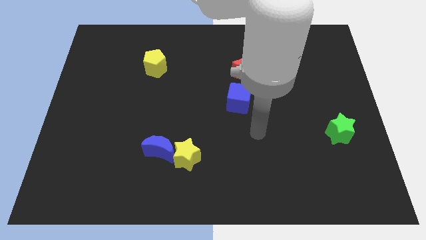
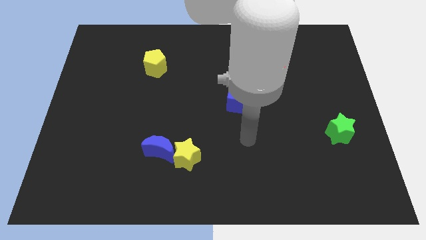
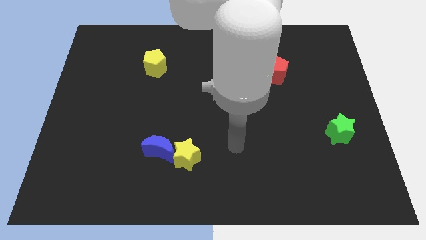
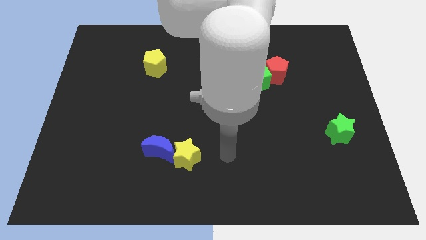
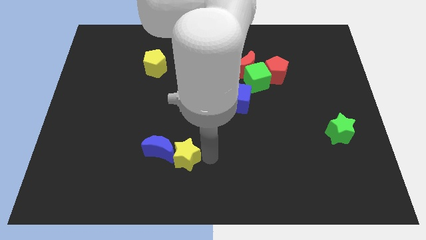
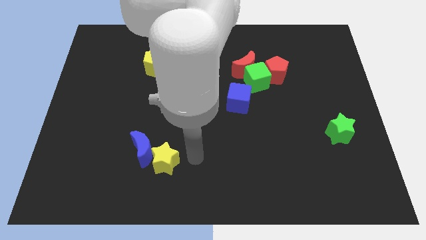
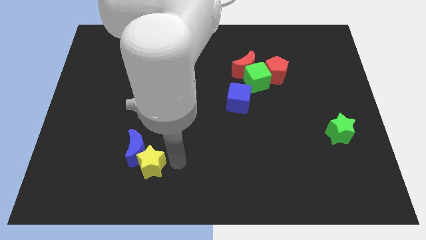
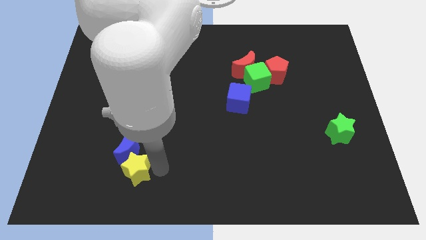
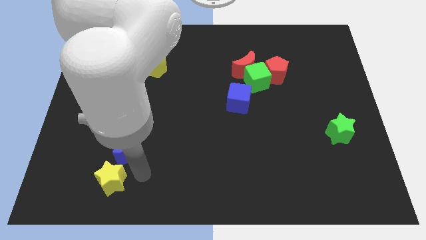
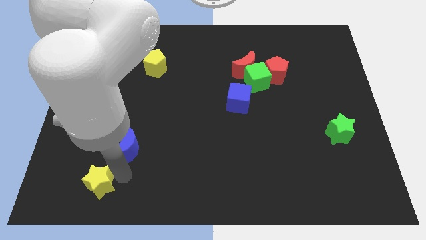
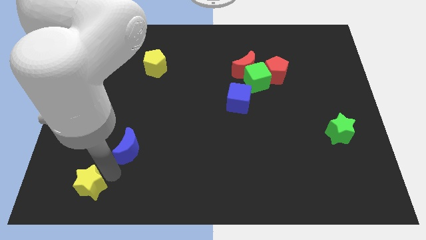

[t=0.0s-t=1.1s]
separate the blue moon from the yellow star

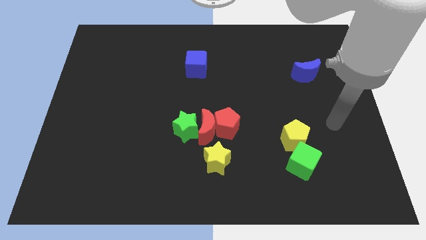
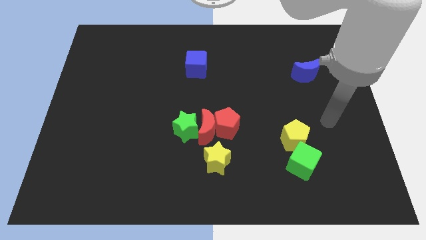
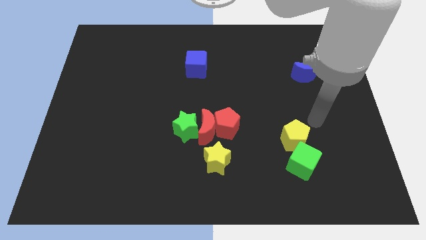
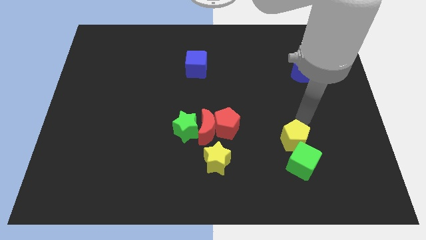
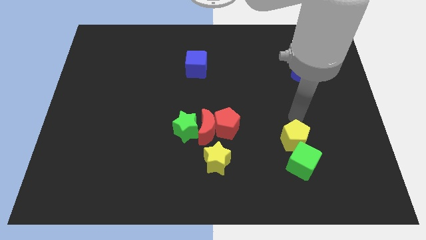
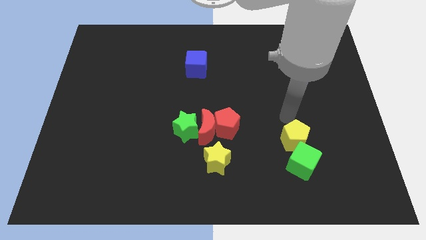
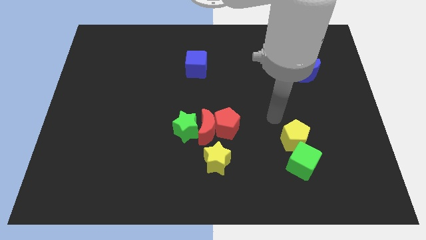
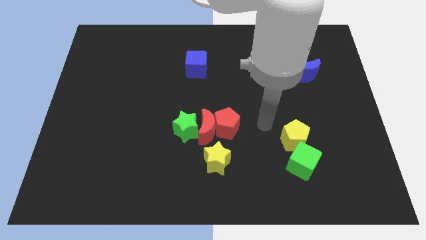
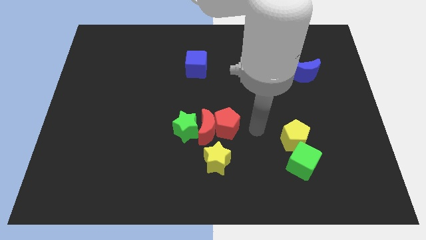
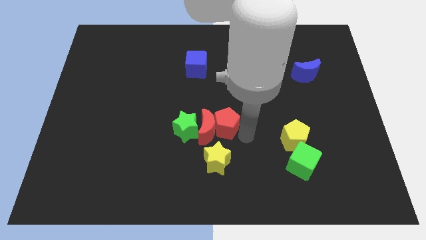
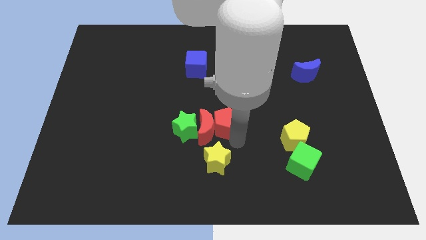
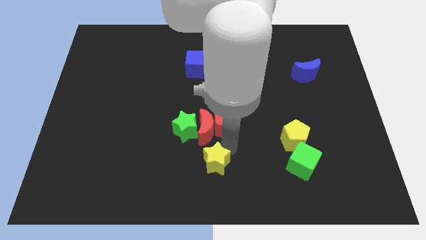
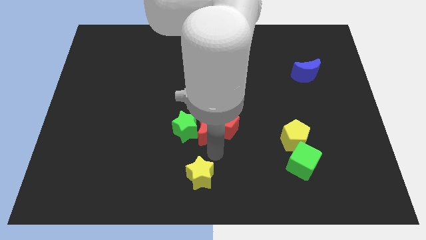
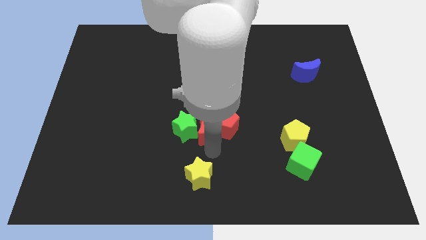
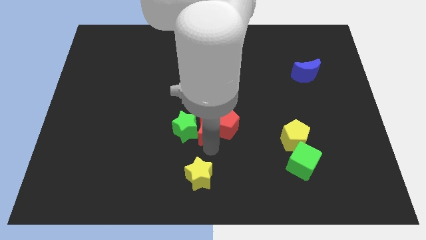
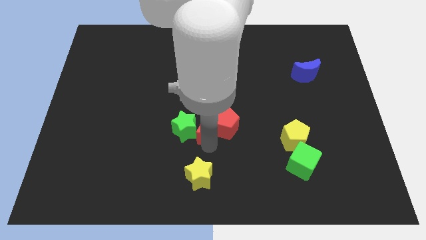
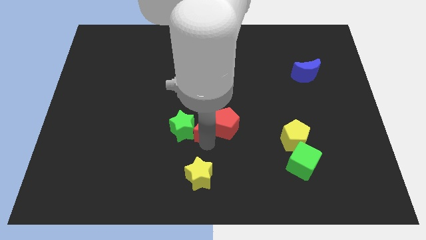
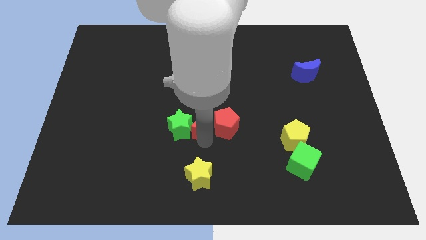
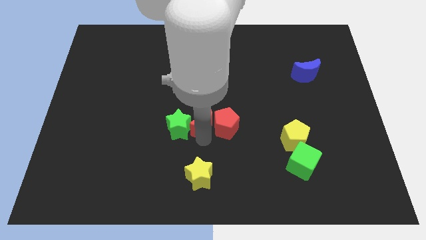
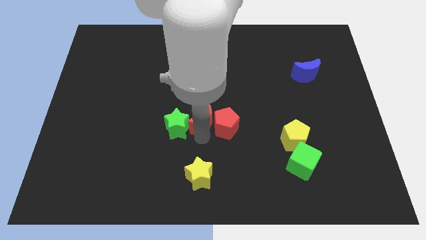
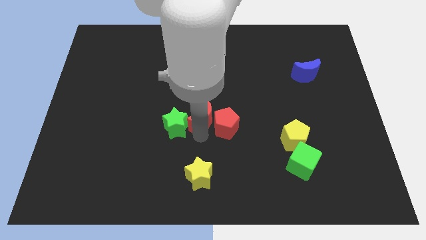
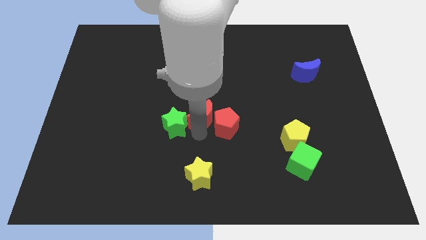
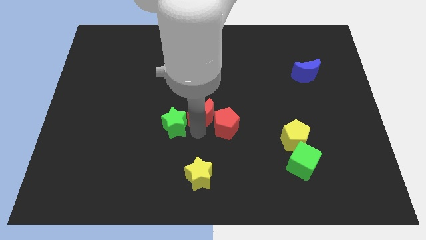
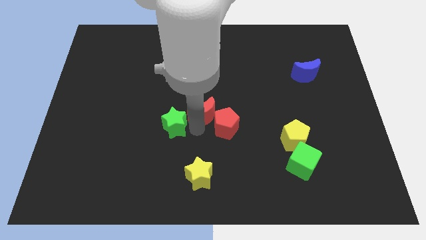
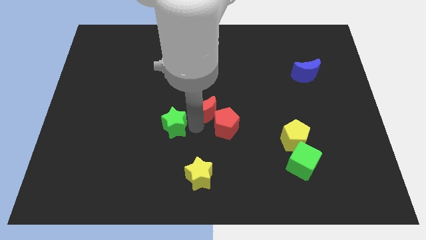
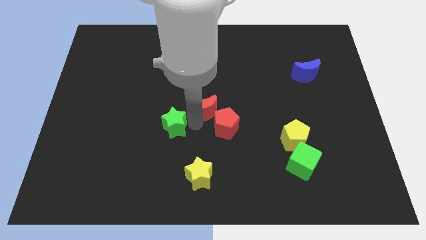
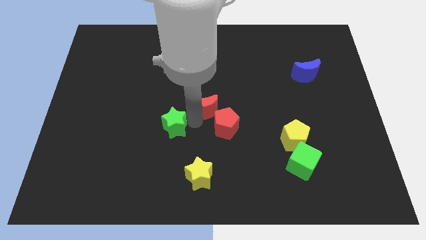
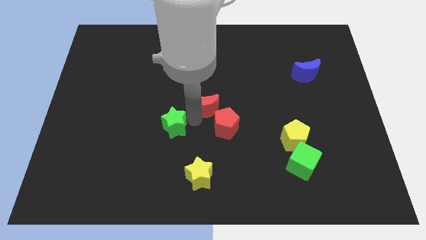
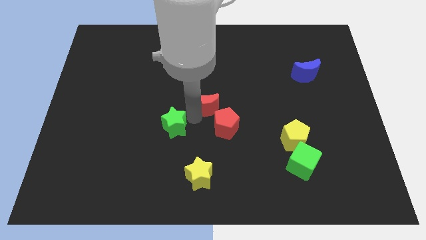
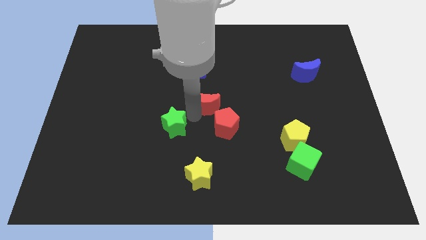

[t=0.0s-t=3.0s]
pull the red moon apart from the red pentagon, green star, and yellow star

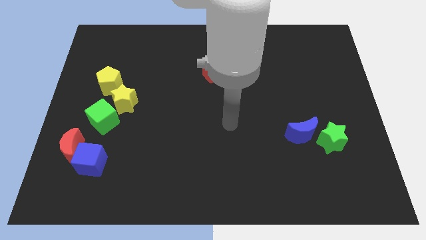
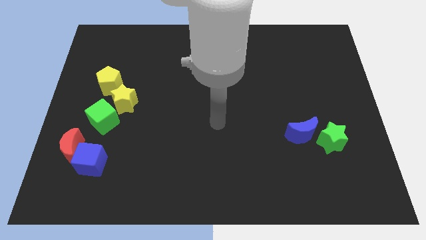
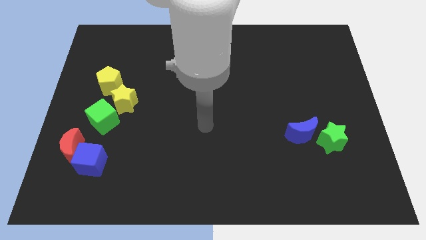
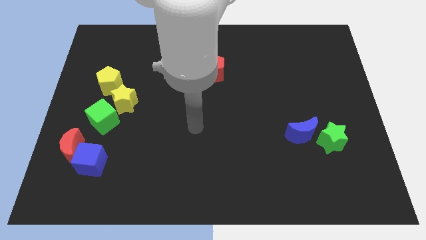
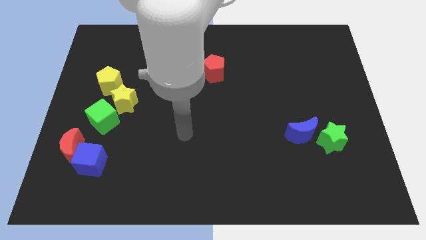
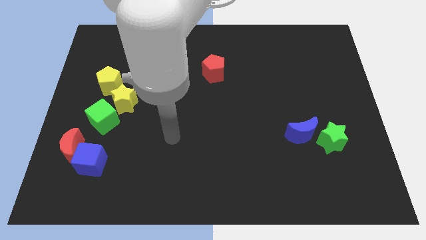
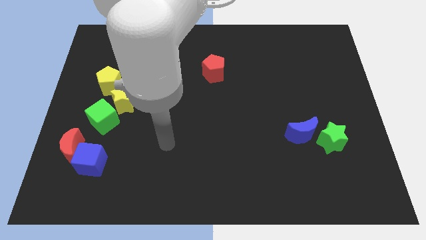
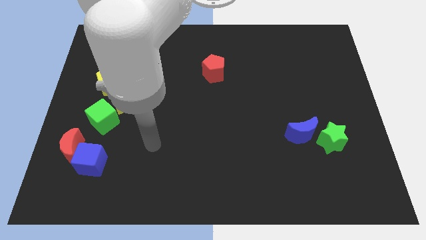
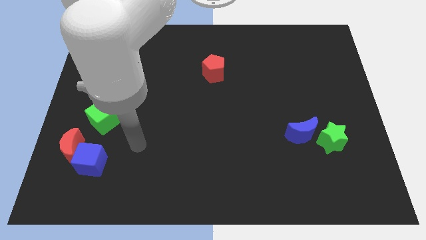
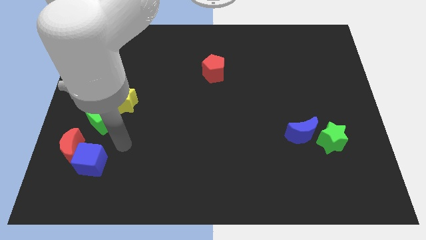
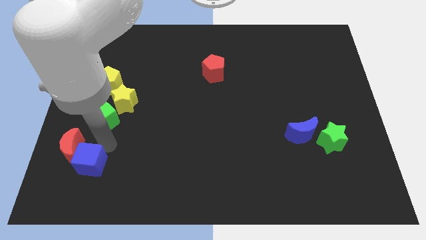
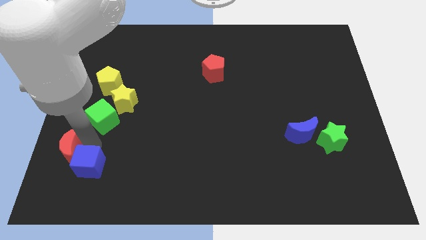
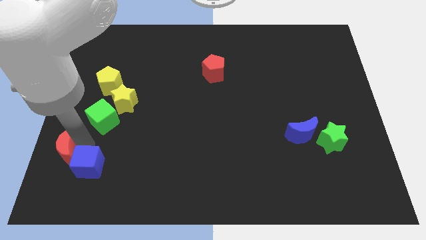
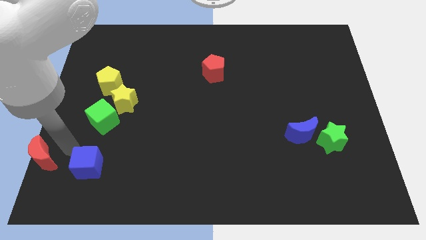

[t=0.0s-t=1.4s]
pull the blue cube apart from the red moon

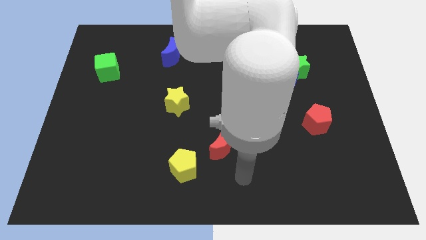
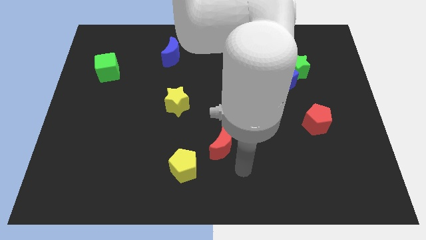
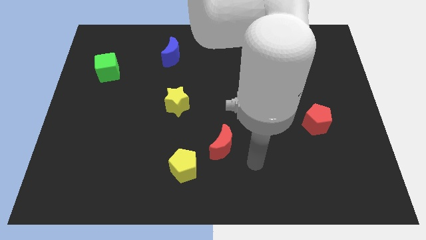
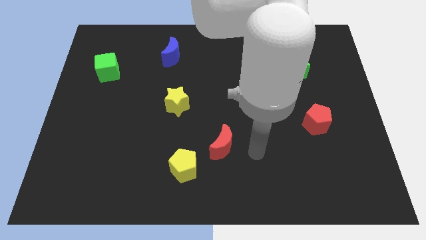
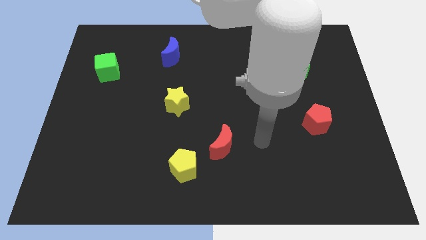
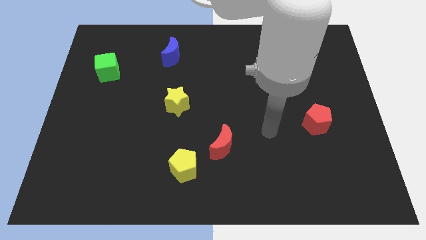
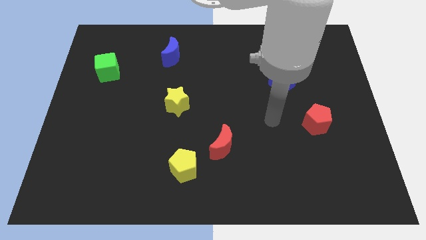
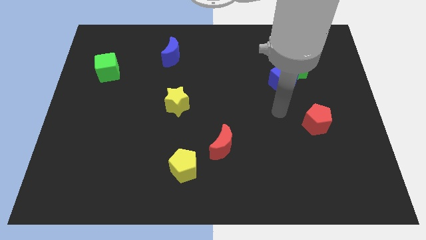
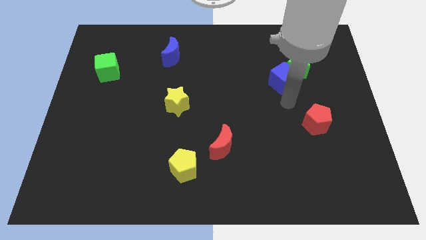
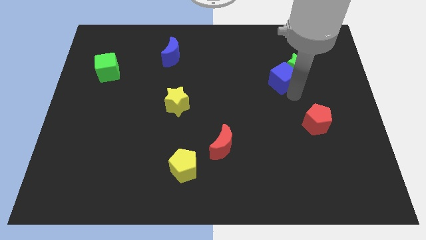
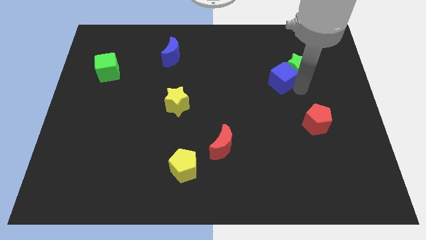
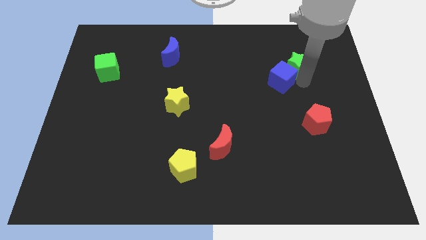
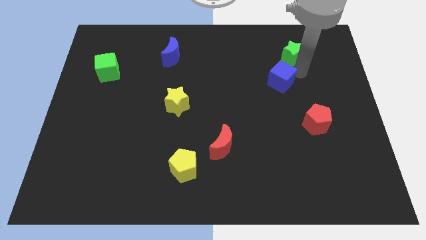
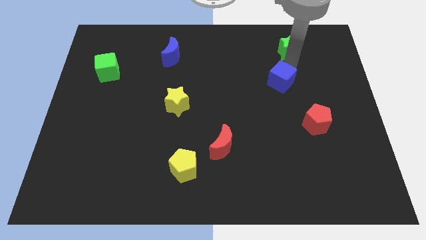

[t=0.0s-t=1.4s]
separate the blue cube from the green star

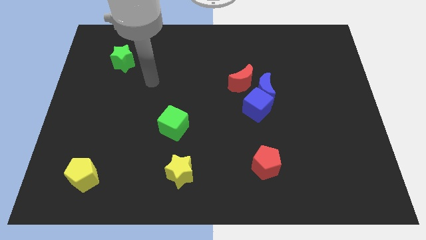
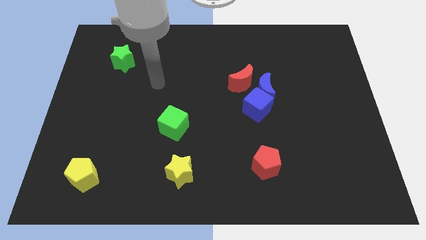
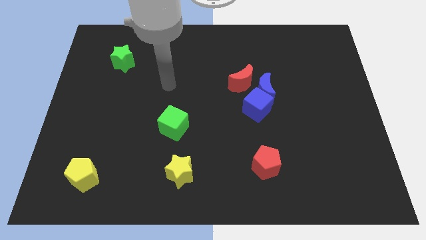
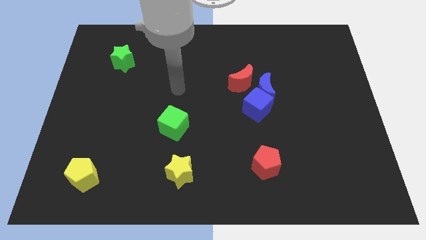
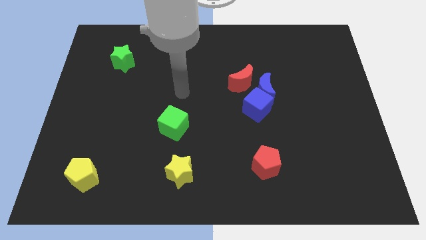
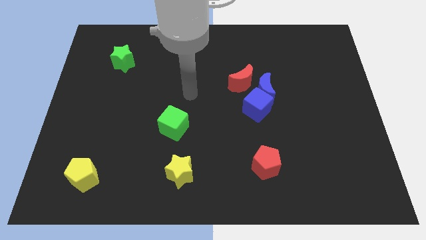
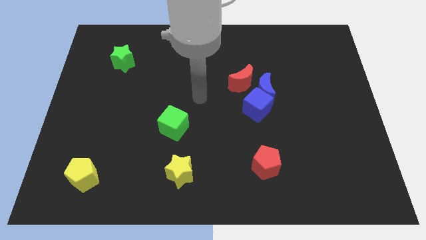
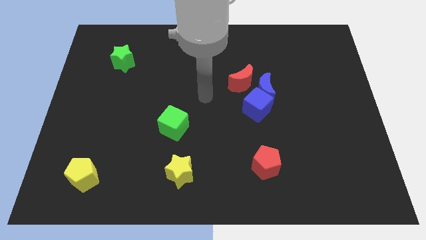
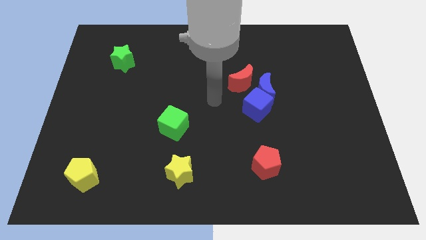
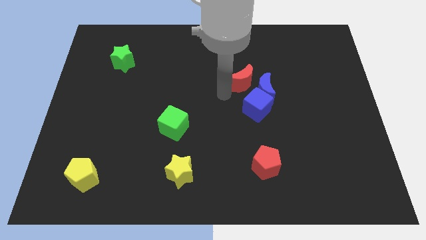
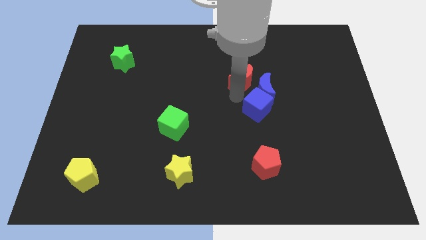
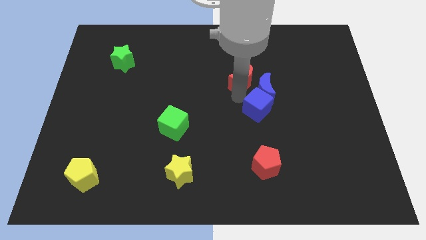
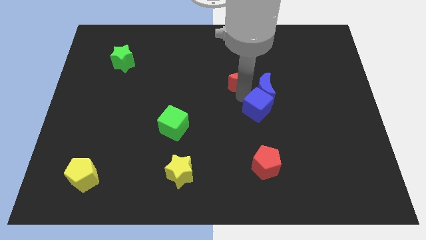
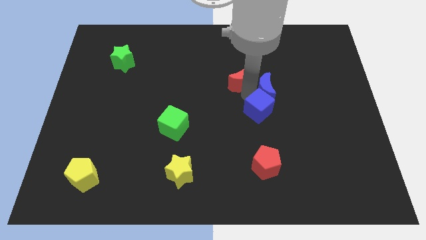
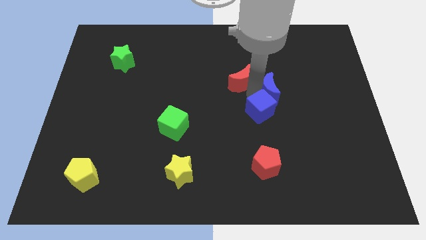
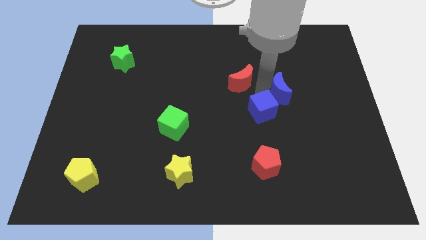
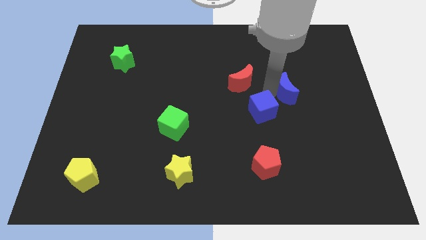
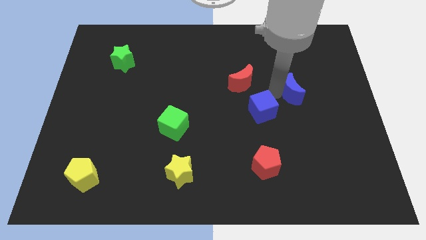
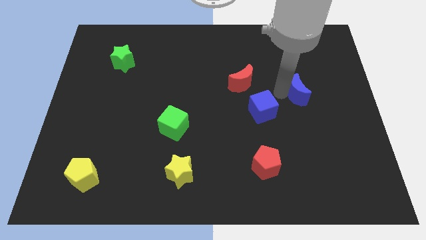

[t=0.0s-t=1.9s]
move the blue moon away from the blue cube and red moon

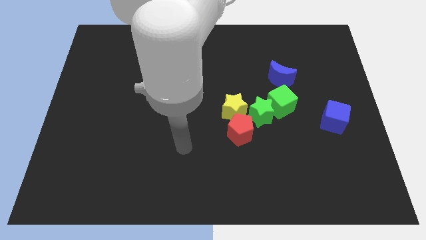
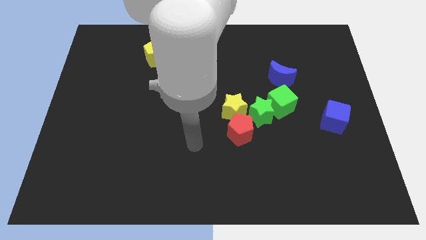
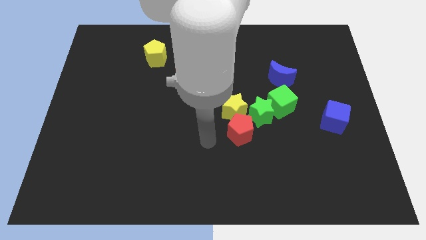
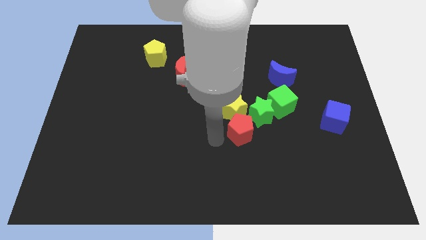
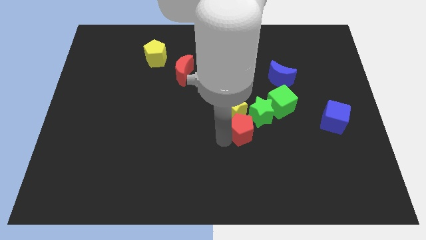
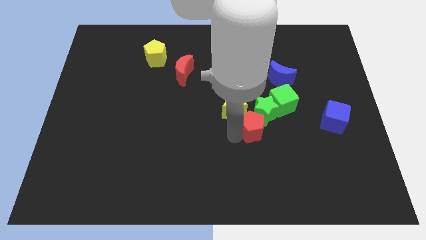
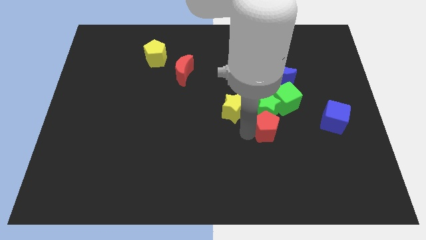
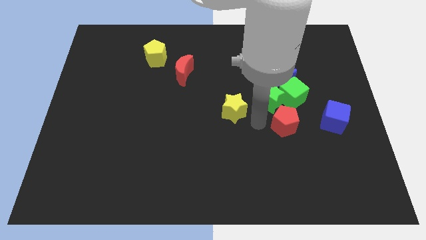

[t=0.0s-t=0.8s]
move the yellow star away from the red pentagon and green star
